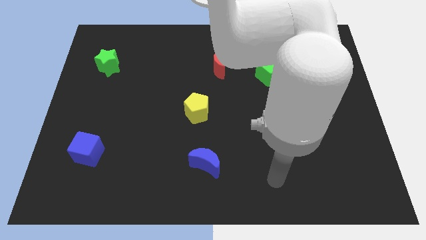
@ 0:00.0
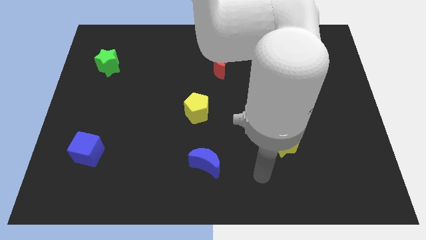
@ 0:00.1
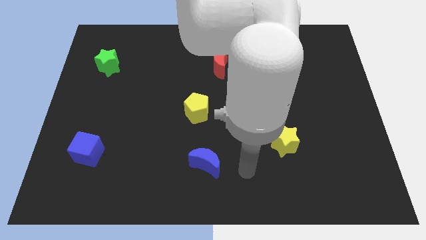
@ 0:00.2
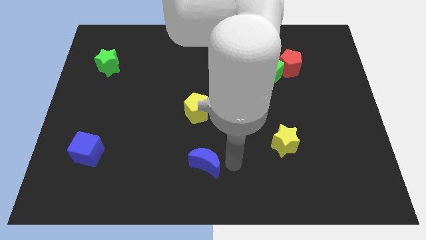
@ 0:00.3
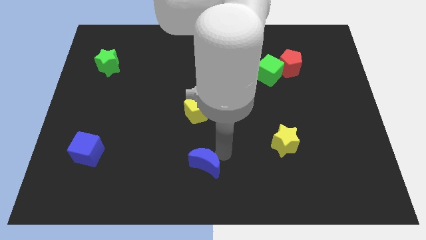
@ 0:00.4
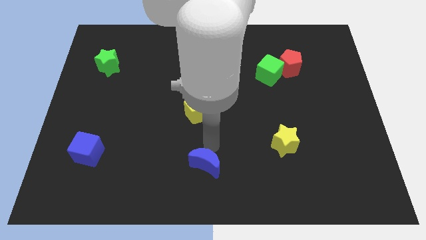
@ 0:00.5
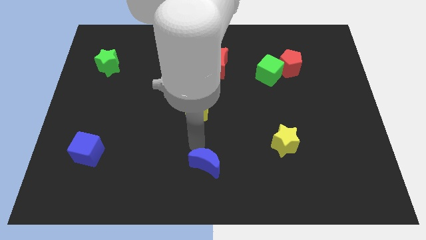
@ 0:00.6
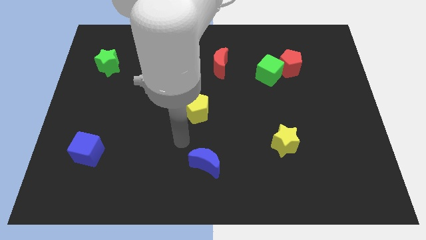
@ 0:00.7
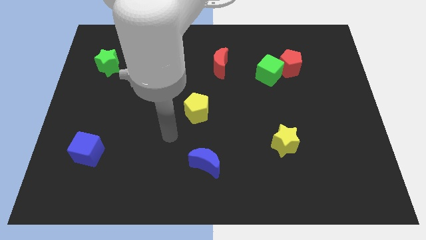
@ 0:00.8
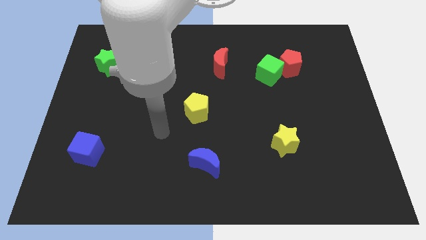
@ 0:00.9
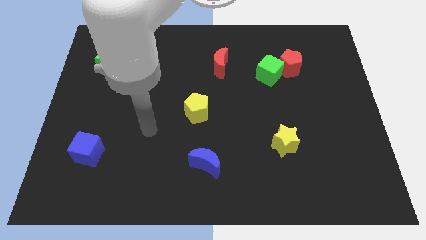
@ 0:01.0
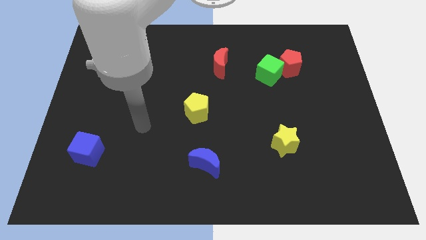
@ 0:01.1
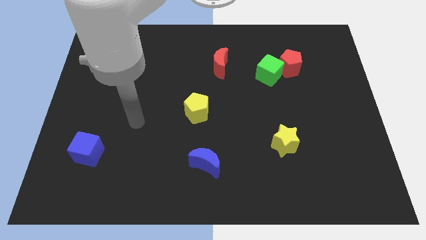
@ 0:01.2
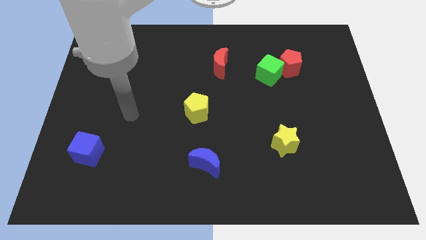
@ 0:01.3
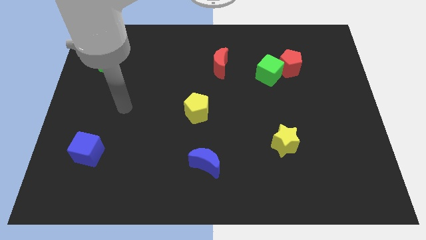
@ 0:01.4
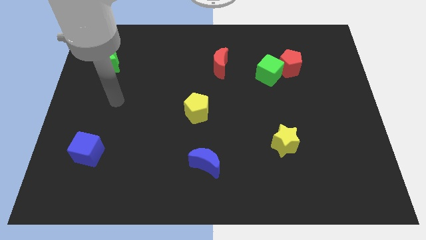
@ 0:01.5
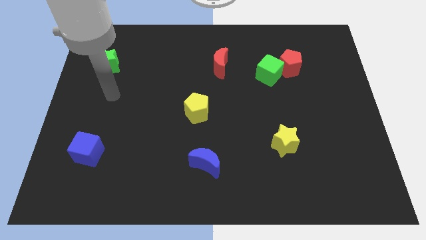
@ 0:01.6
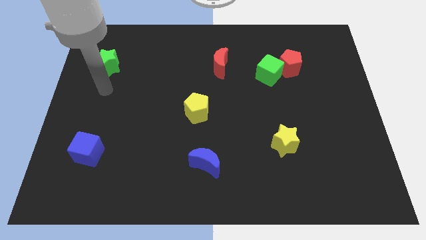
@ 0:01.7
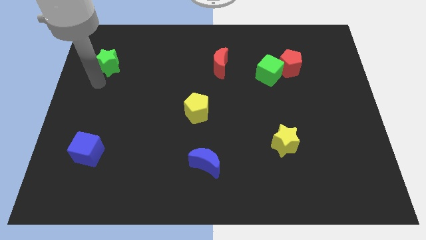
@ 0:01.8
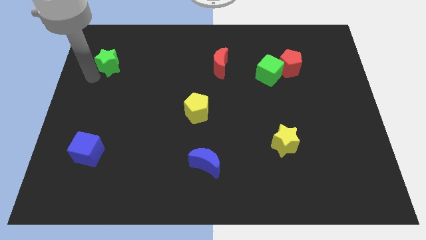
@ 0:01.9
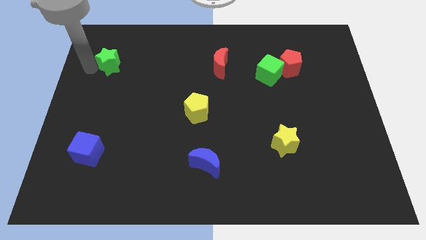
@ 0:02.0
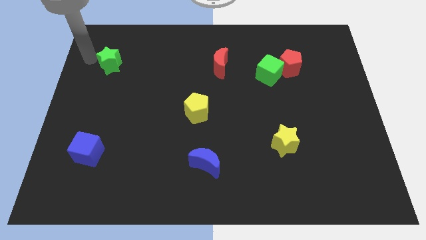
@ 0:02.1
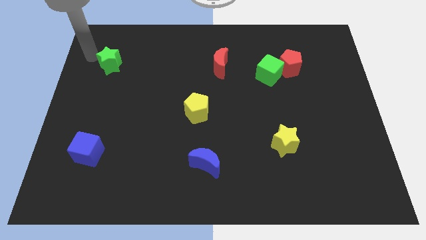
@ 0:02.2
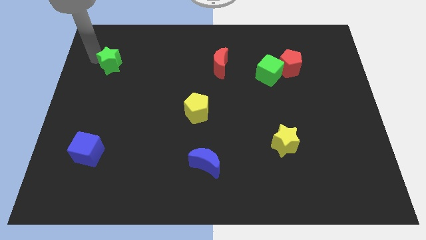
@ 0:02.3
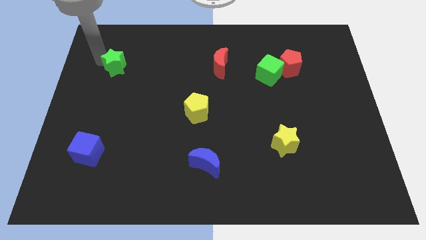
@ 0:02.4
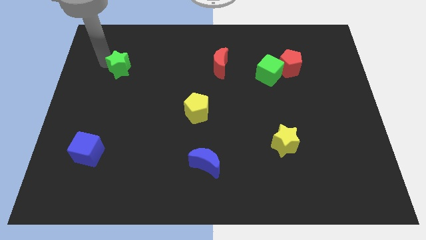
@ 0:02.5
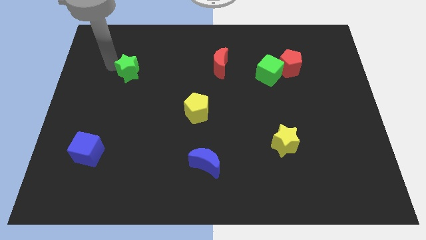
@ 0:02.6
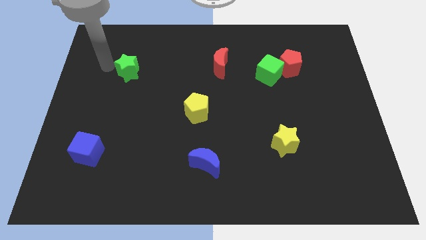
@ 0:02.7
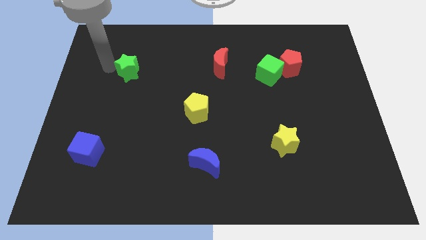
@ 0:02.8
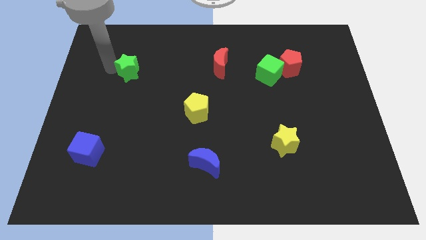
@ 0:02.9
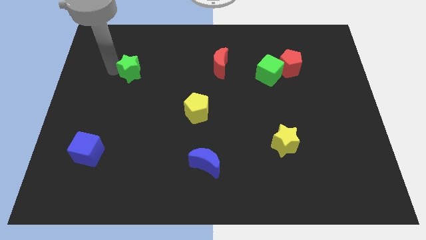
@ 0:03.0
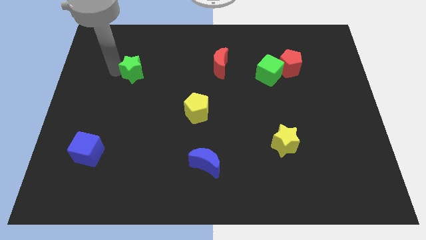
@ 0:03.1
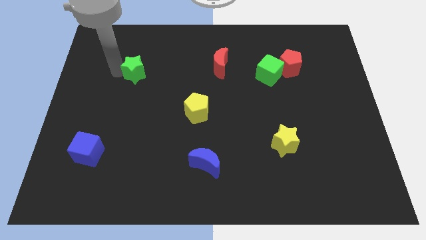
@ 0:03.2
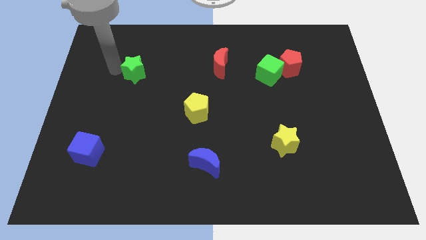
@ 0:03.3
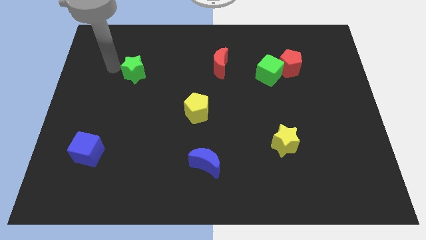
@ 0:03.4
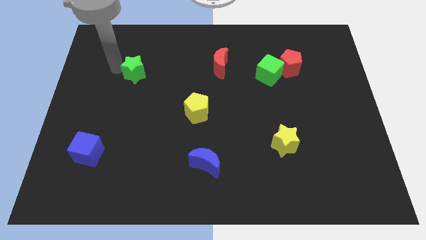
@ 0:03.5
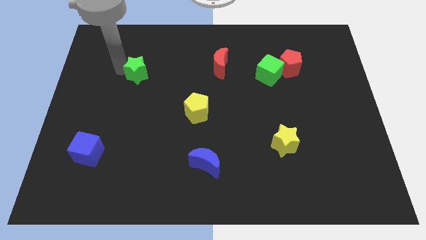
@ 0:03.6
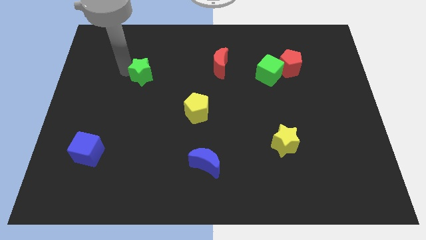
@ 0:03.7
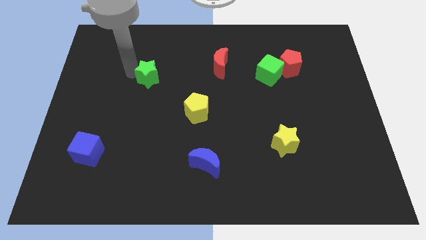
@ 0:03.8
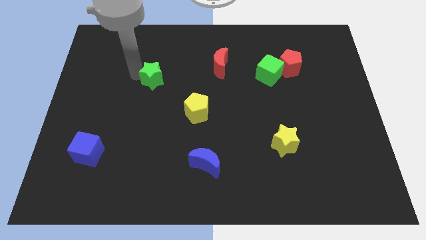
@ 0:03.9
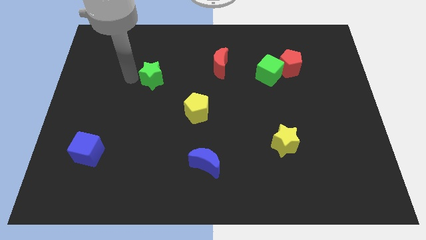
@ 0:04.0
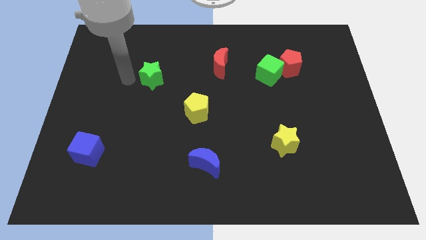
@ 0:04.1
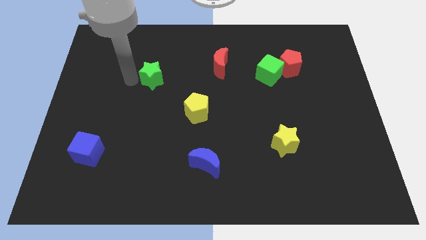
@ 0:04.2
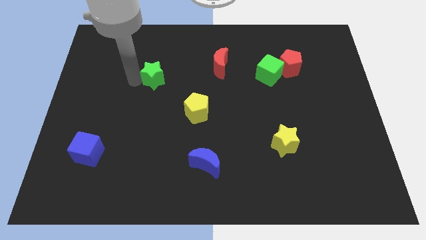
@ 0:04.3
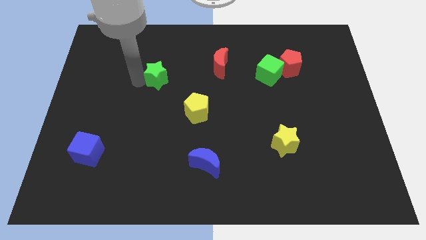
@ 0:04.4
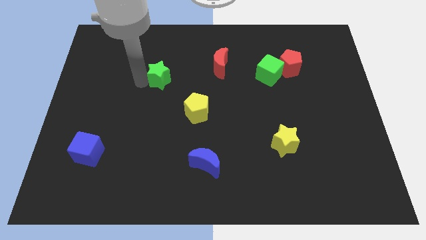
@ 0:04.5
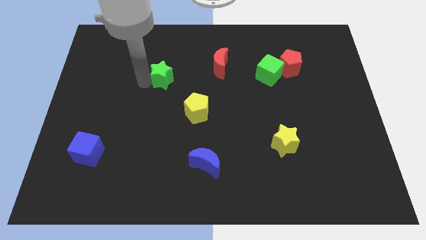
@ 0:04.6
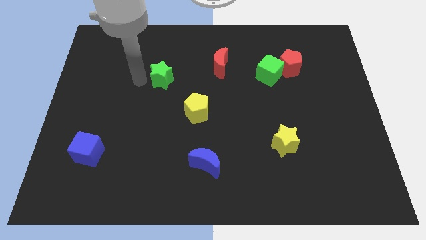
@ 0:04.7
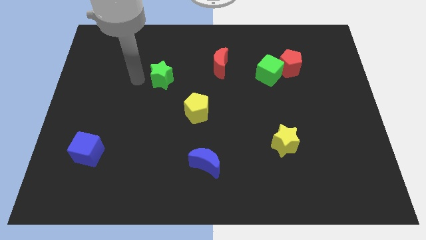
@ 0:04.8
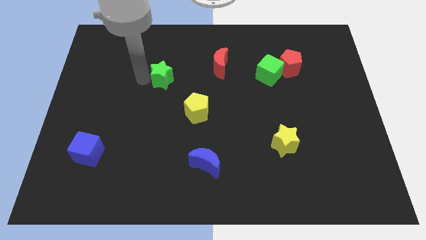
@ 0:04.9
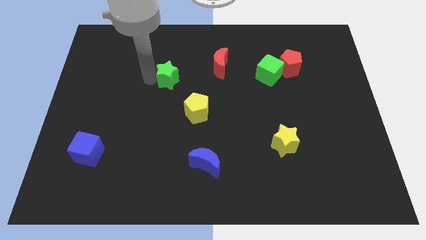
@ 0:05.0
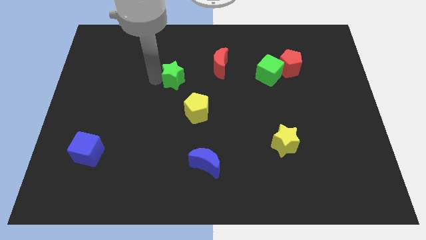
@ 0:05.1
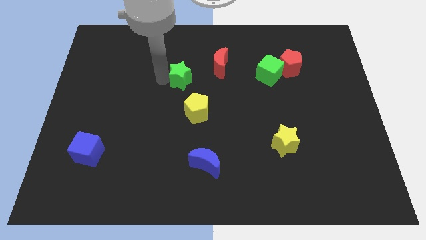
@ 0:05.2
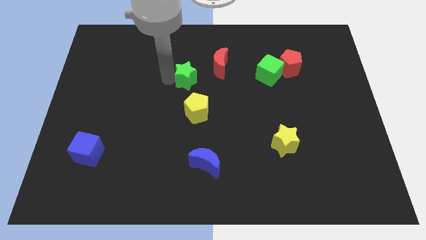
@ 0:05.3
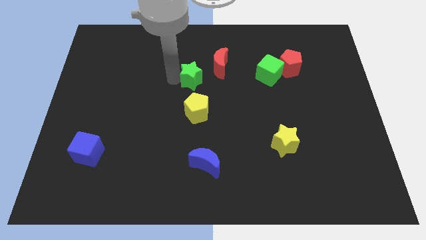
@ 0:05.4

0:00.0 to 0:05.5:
push the green star to the right

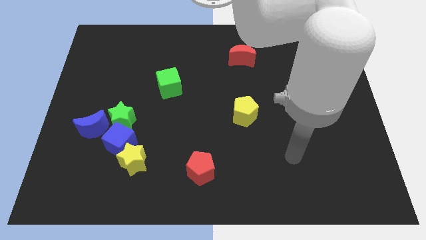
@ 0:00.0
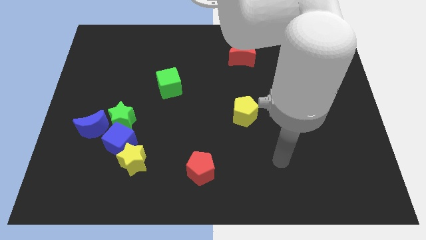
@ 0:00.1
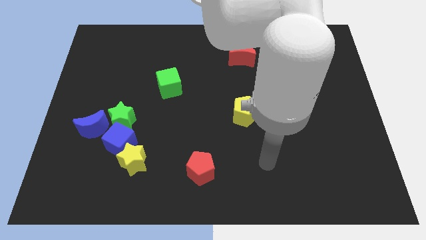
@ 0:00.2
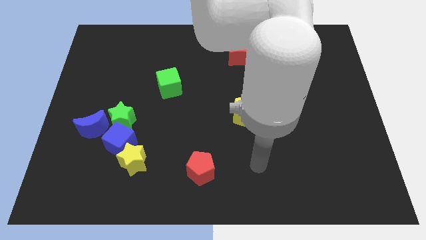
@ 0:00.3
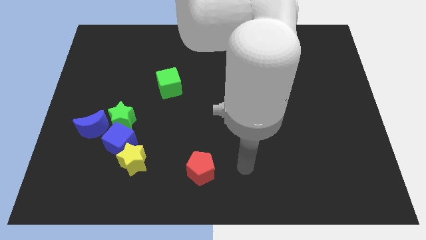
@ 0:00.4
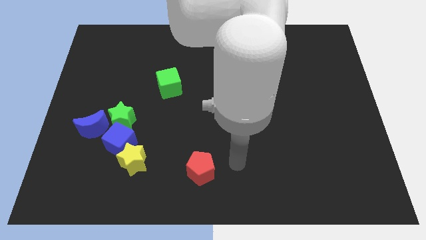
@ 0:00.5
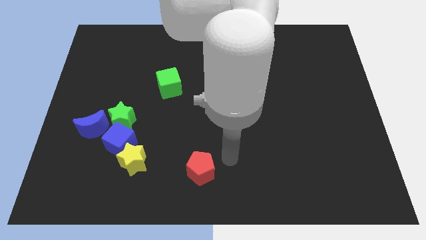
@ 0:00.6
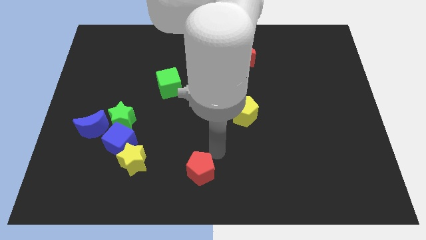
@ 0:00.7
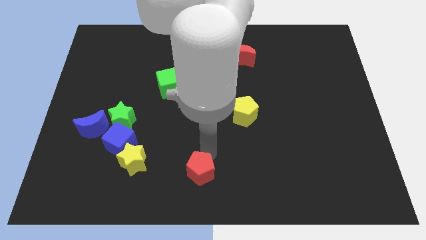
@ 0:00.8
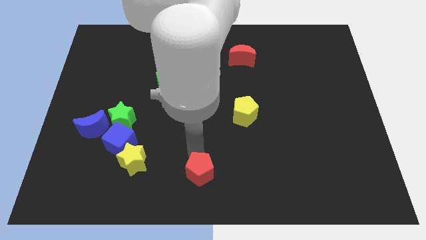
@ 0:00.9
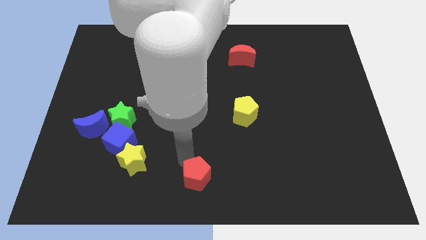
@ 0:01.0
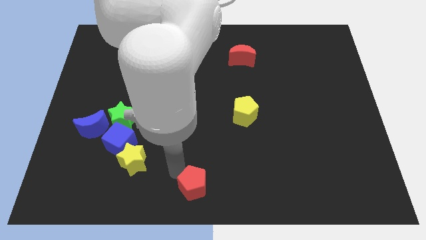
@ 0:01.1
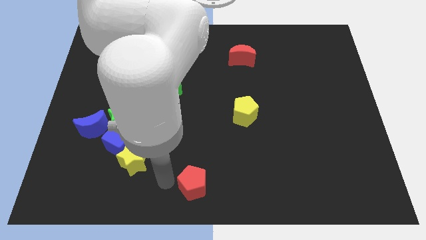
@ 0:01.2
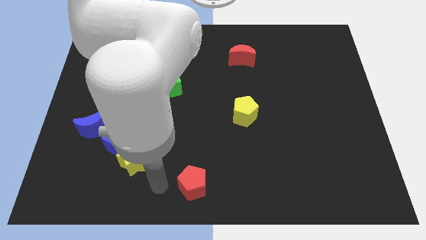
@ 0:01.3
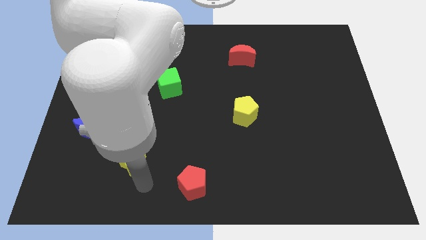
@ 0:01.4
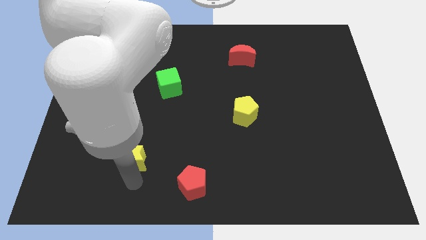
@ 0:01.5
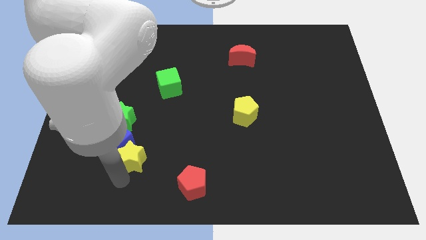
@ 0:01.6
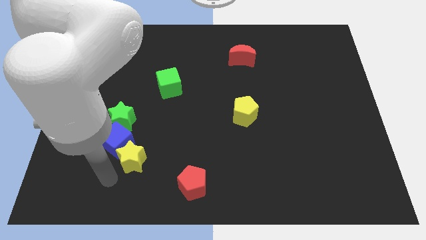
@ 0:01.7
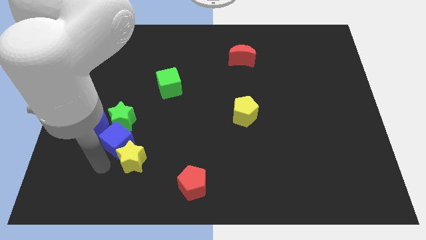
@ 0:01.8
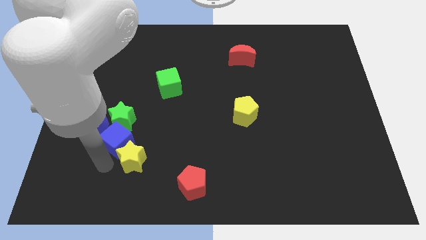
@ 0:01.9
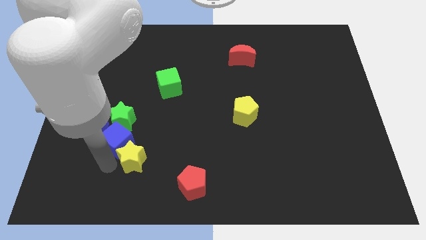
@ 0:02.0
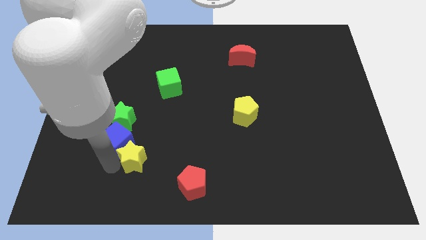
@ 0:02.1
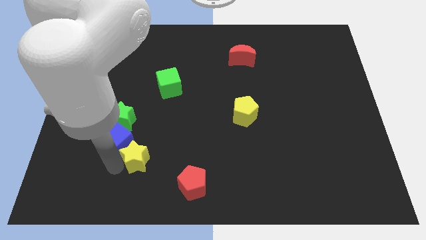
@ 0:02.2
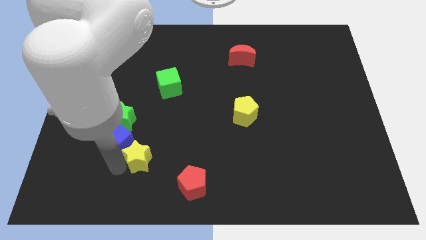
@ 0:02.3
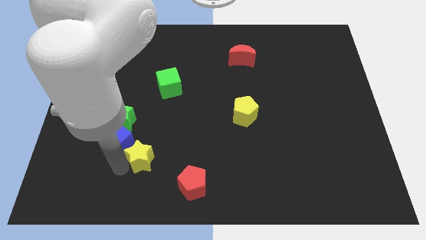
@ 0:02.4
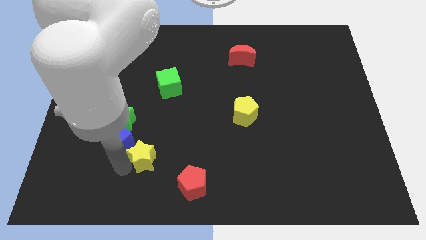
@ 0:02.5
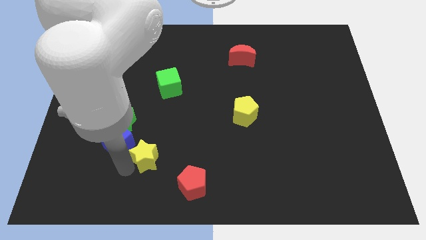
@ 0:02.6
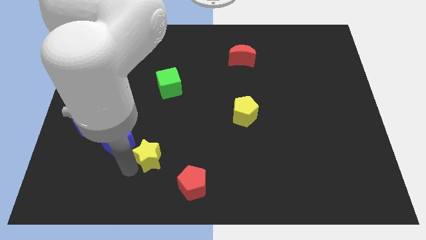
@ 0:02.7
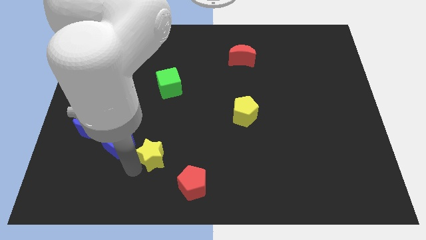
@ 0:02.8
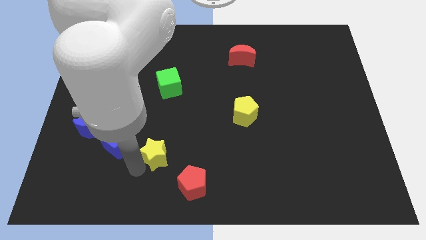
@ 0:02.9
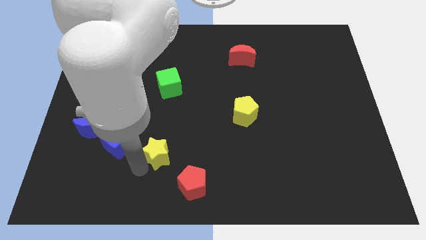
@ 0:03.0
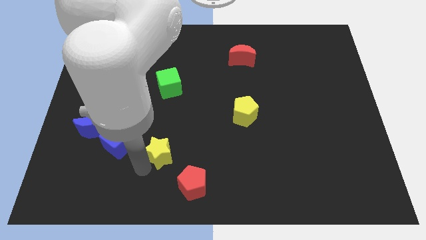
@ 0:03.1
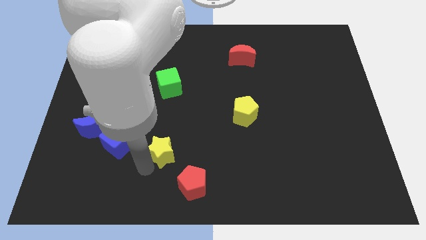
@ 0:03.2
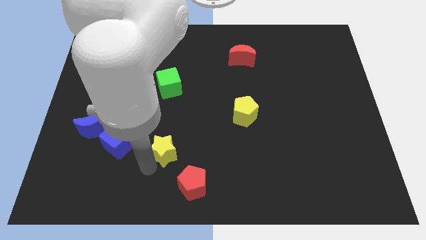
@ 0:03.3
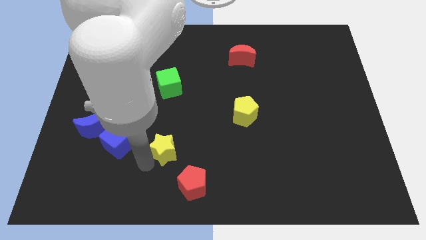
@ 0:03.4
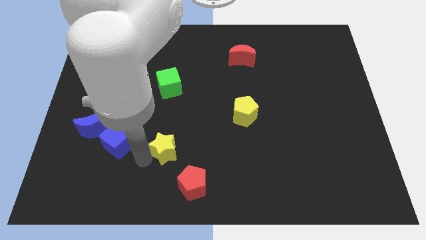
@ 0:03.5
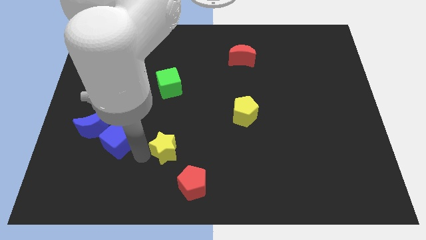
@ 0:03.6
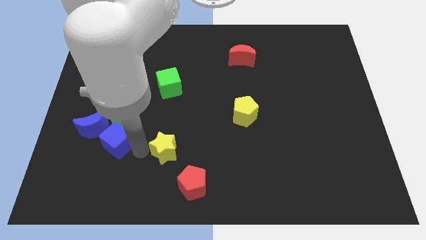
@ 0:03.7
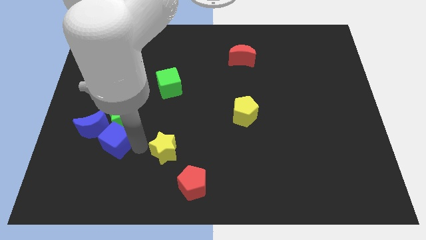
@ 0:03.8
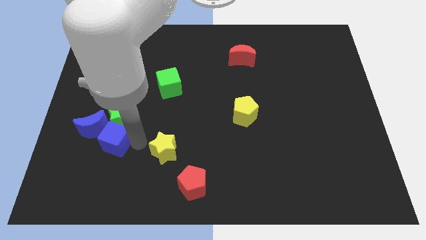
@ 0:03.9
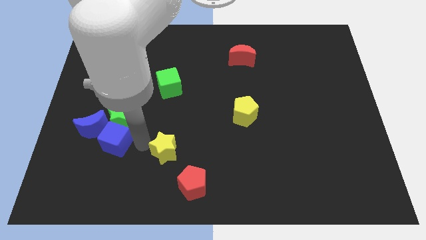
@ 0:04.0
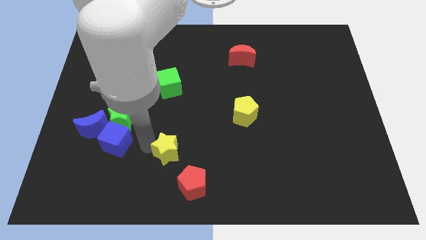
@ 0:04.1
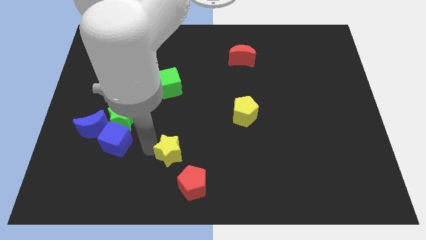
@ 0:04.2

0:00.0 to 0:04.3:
move the yellow star a little right
